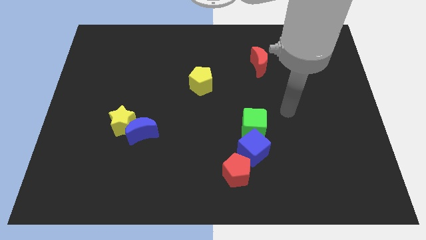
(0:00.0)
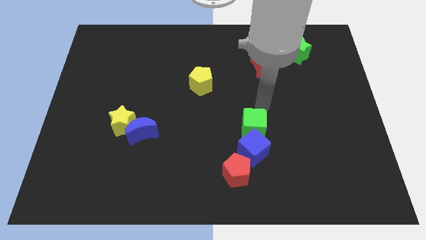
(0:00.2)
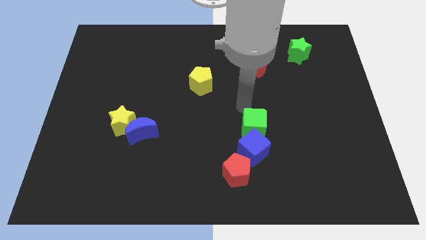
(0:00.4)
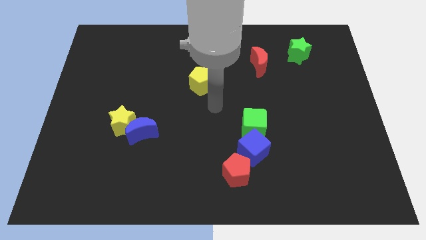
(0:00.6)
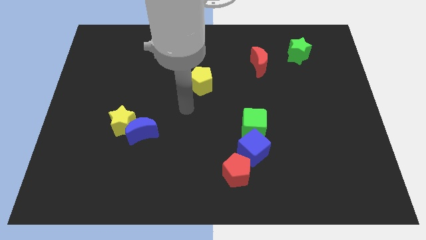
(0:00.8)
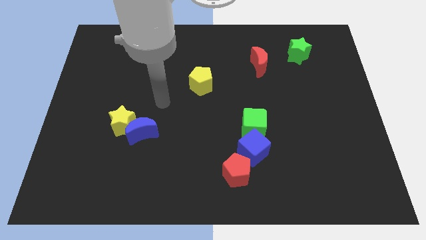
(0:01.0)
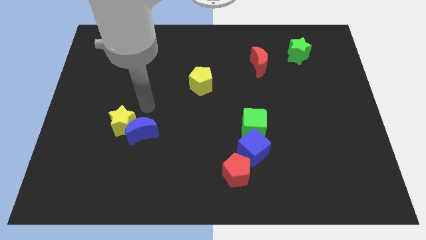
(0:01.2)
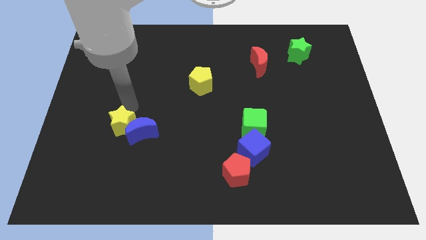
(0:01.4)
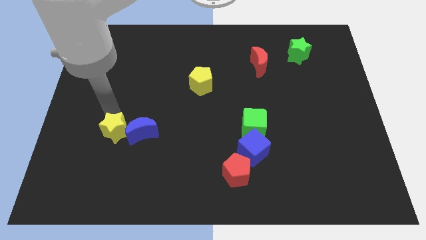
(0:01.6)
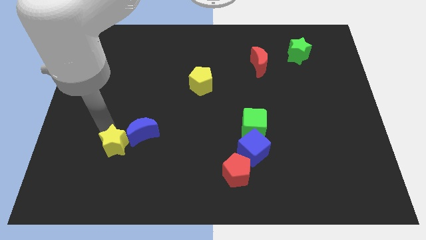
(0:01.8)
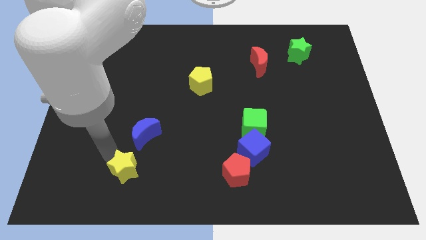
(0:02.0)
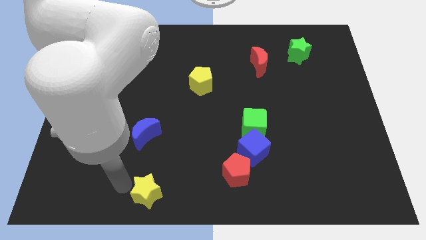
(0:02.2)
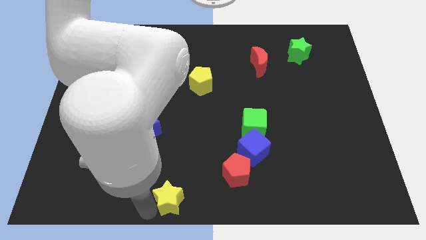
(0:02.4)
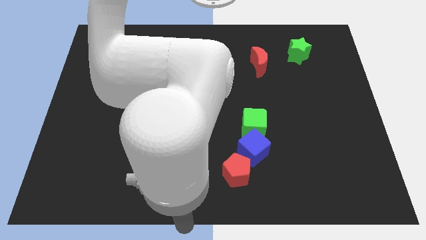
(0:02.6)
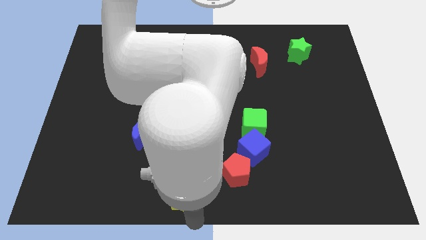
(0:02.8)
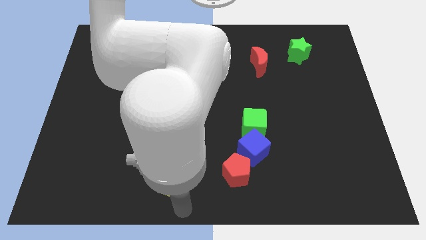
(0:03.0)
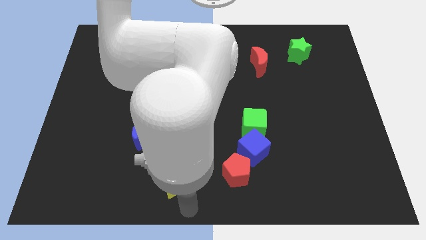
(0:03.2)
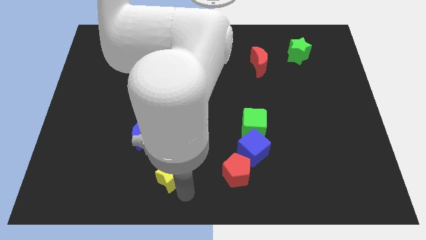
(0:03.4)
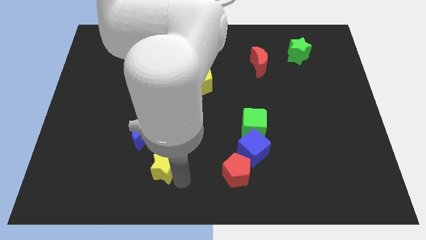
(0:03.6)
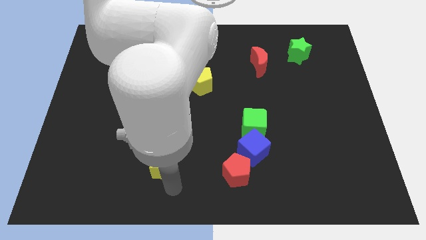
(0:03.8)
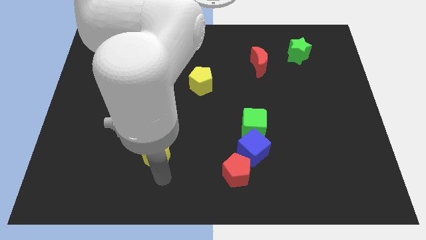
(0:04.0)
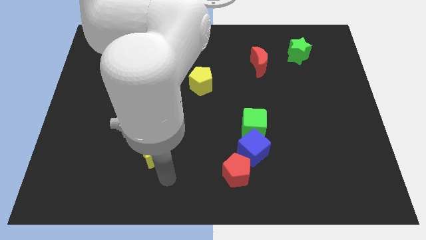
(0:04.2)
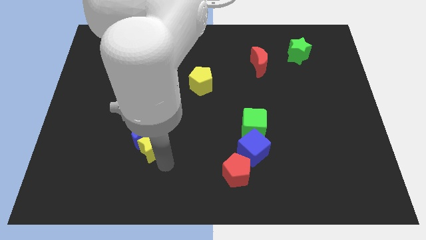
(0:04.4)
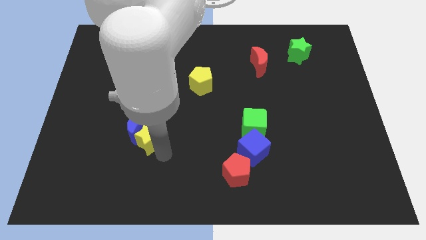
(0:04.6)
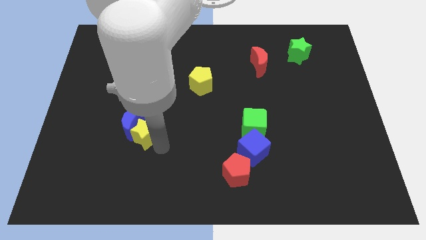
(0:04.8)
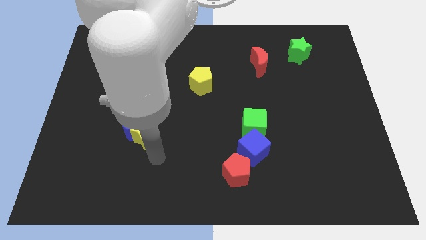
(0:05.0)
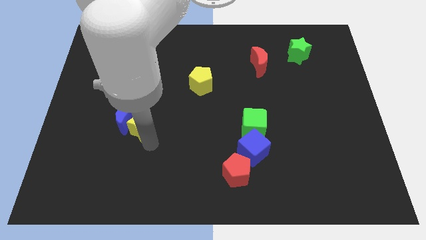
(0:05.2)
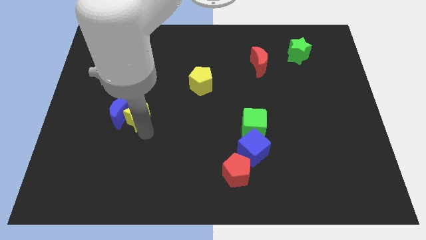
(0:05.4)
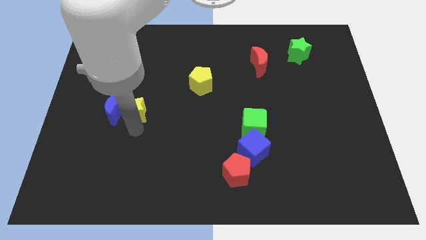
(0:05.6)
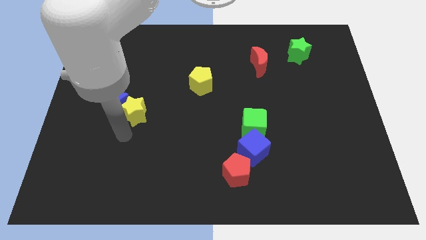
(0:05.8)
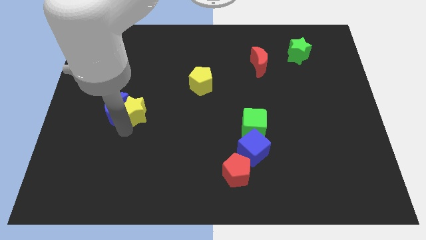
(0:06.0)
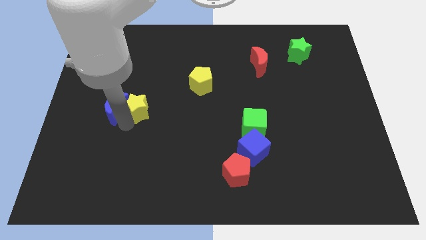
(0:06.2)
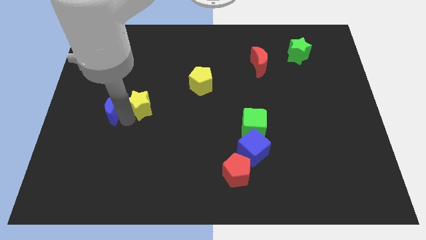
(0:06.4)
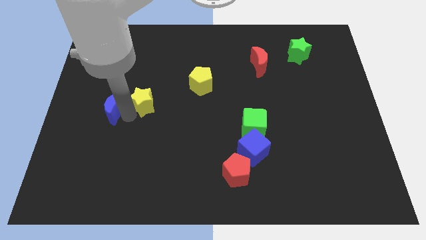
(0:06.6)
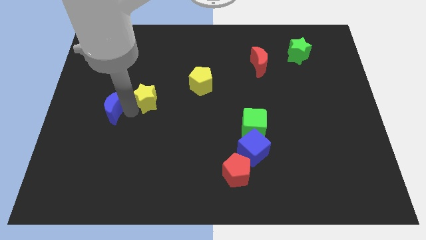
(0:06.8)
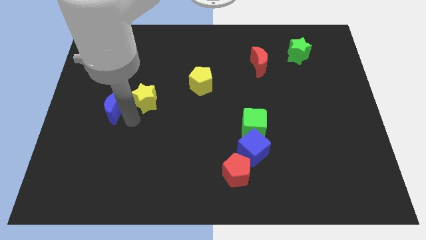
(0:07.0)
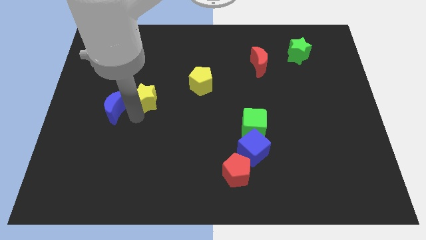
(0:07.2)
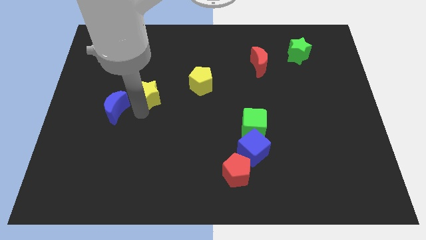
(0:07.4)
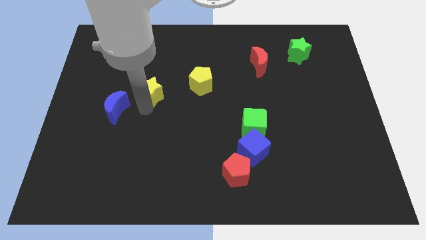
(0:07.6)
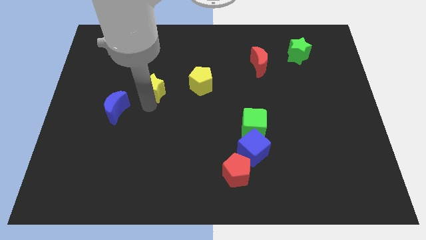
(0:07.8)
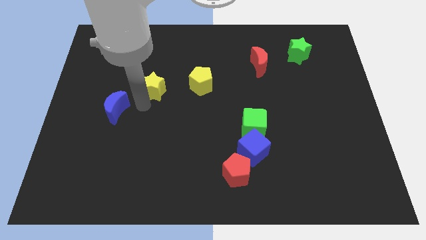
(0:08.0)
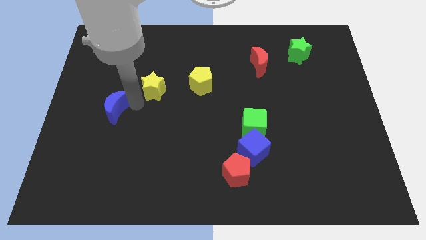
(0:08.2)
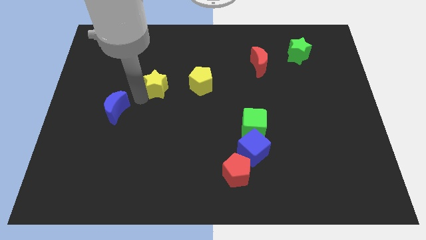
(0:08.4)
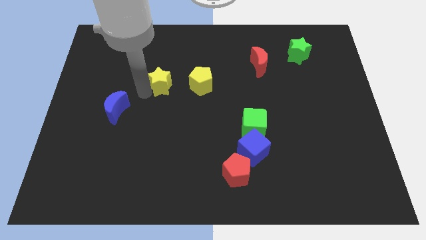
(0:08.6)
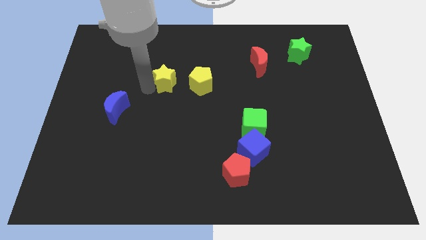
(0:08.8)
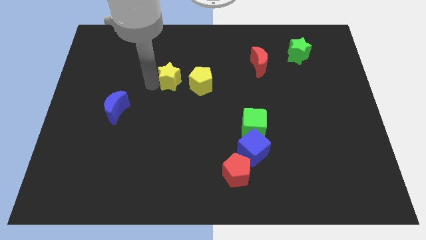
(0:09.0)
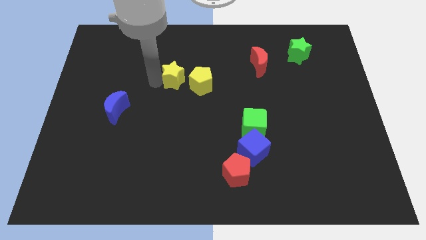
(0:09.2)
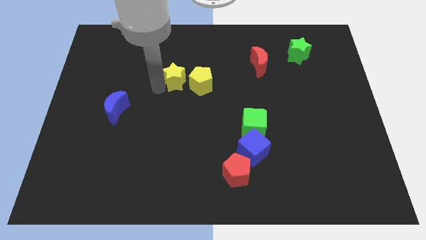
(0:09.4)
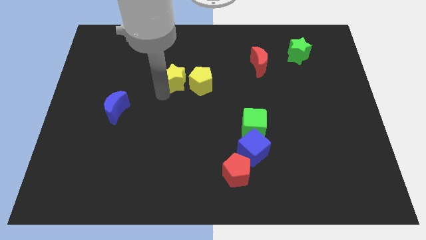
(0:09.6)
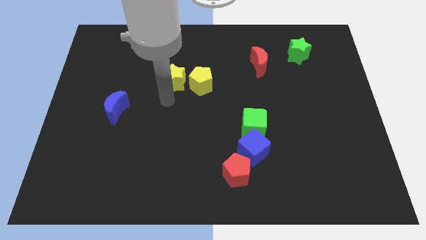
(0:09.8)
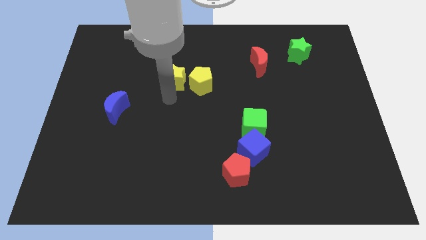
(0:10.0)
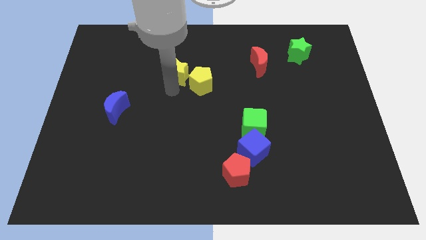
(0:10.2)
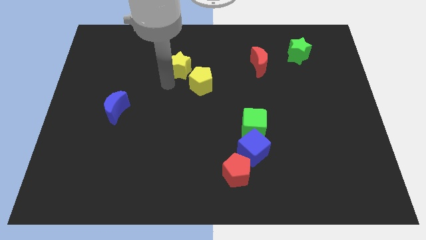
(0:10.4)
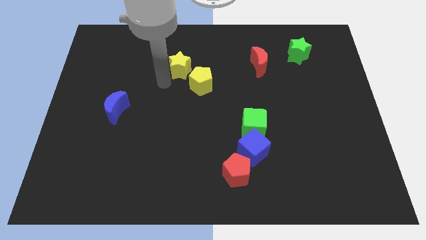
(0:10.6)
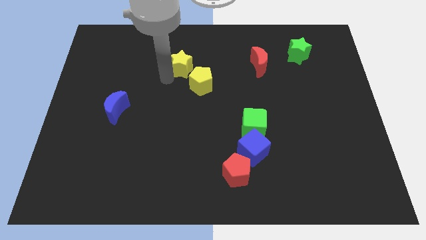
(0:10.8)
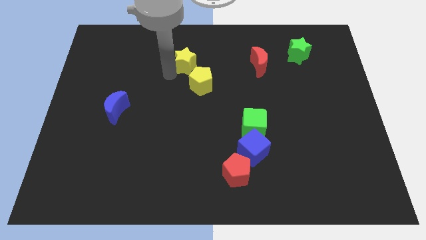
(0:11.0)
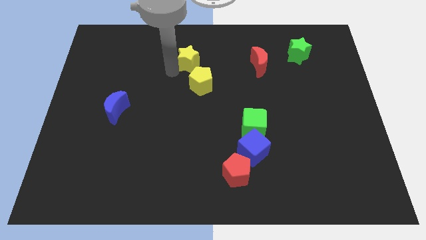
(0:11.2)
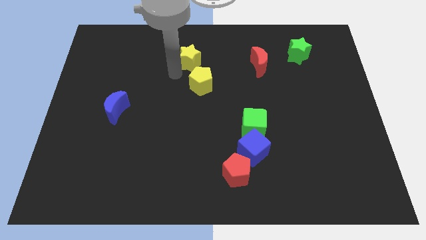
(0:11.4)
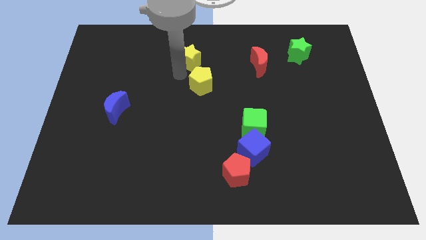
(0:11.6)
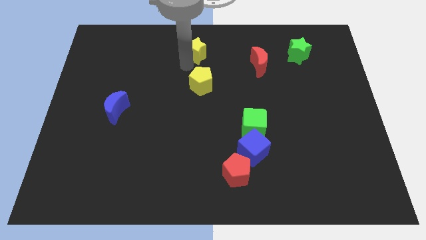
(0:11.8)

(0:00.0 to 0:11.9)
move the yellow star to the top side
